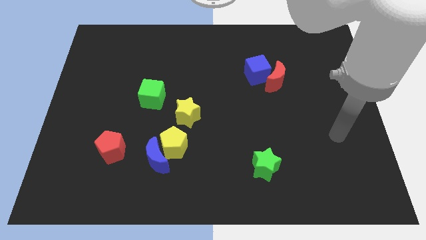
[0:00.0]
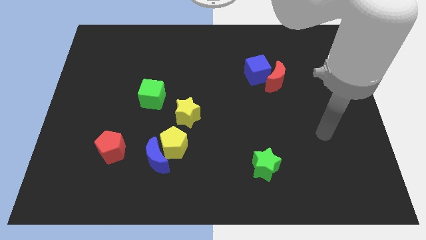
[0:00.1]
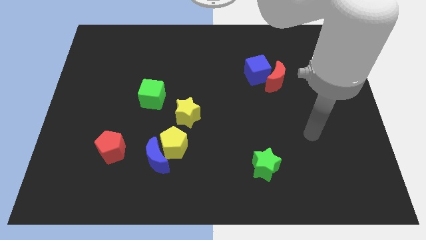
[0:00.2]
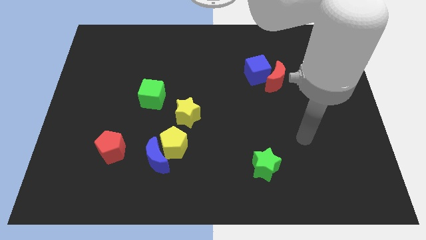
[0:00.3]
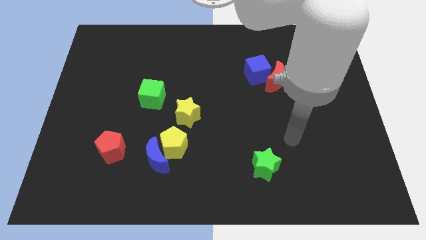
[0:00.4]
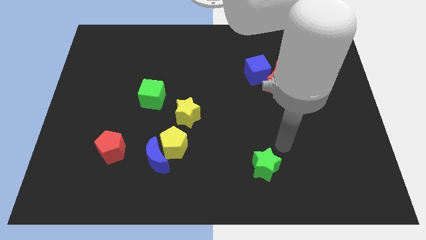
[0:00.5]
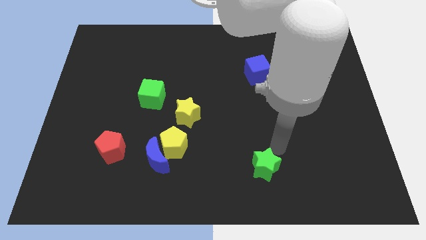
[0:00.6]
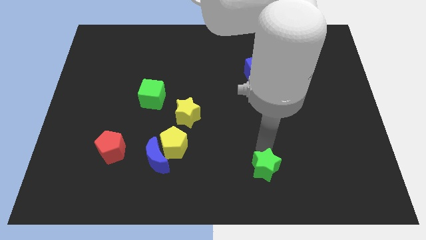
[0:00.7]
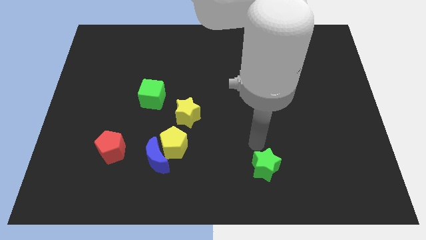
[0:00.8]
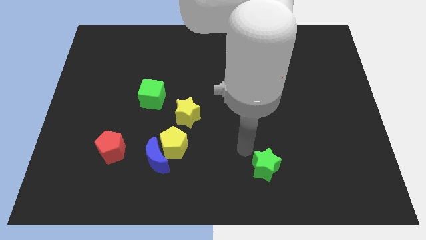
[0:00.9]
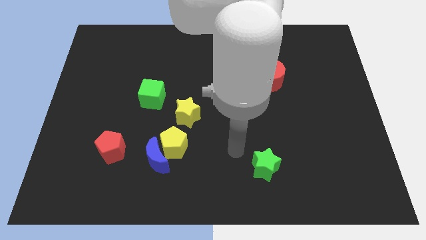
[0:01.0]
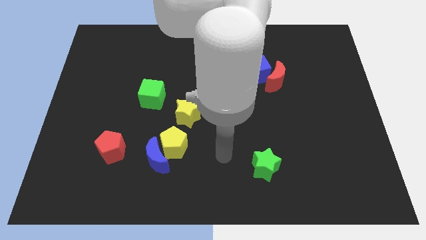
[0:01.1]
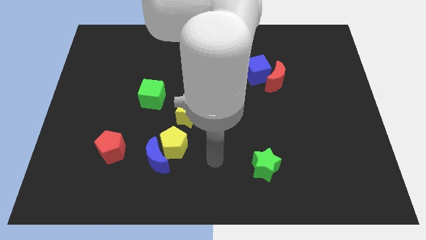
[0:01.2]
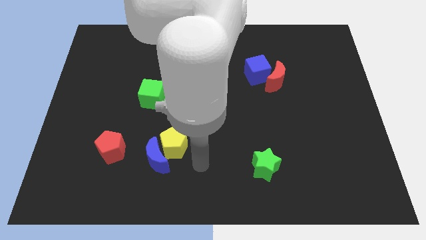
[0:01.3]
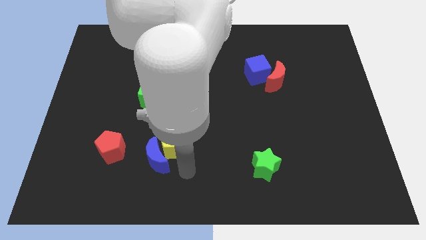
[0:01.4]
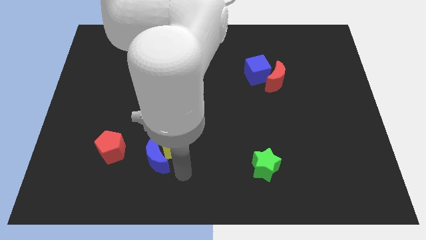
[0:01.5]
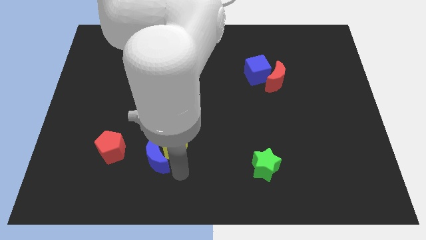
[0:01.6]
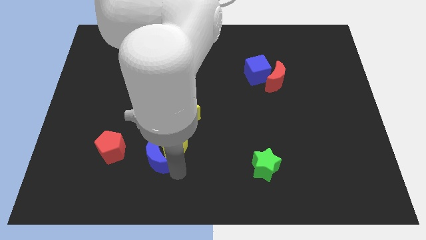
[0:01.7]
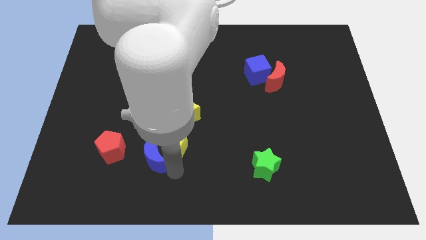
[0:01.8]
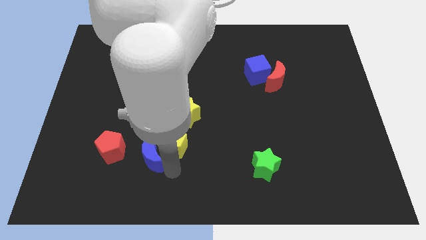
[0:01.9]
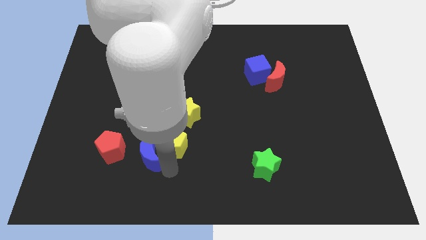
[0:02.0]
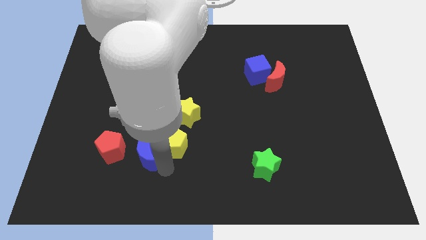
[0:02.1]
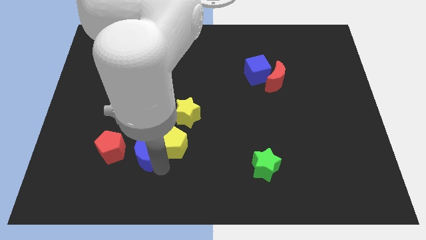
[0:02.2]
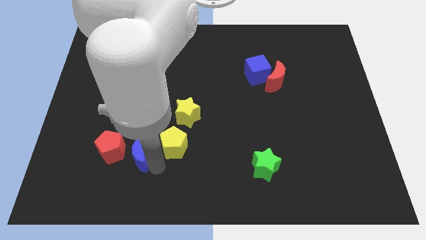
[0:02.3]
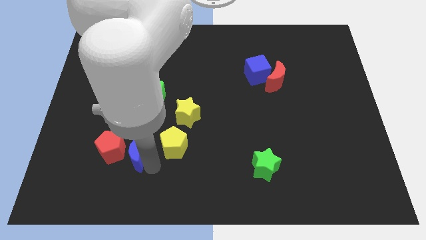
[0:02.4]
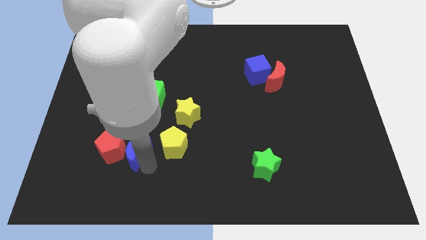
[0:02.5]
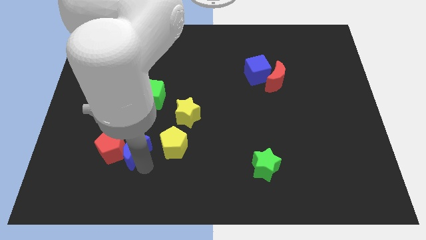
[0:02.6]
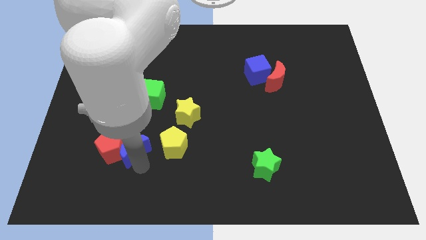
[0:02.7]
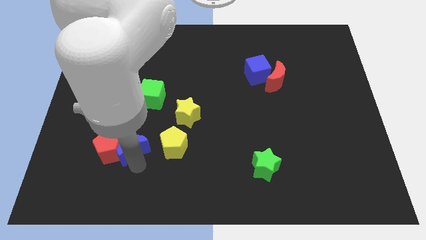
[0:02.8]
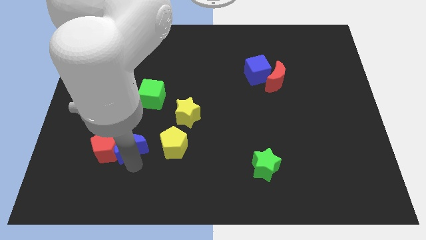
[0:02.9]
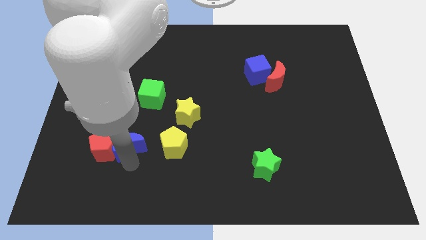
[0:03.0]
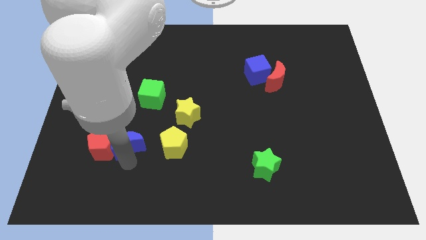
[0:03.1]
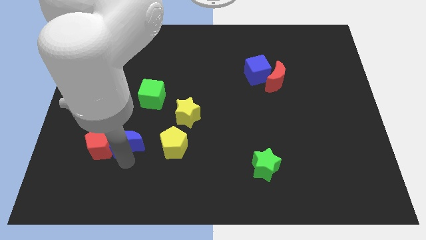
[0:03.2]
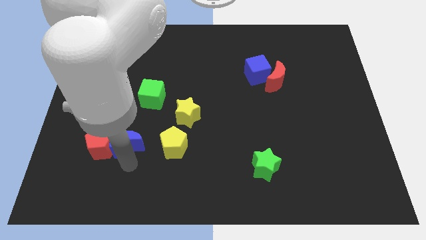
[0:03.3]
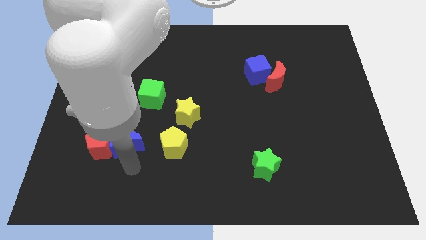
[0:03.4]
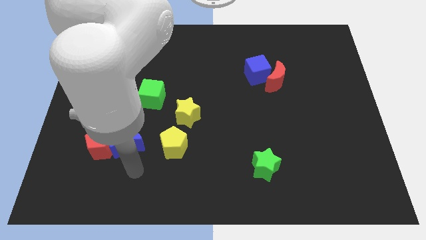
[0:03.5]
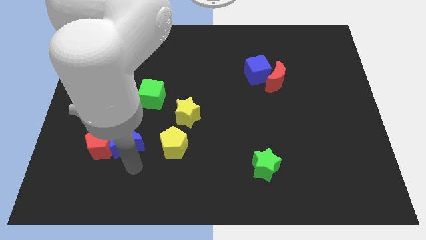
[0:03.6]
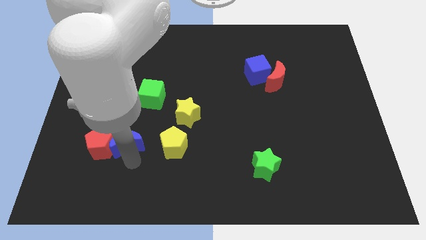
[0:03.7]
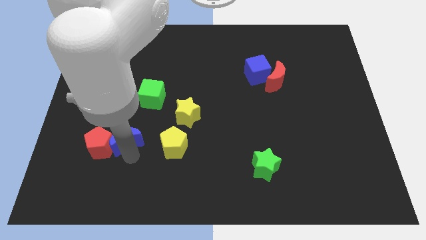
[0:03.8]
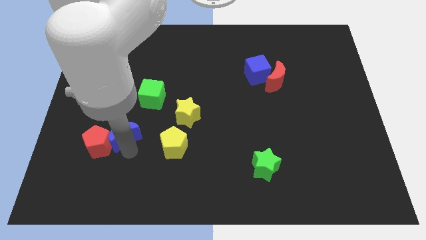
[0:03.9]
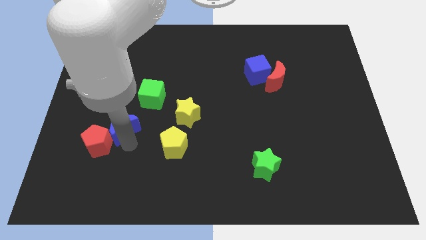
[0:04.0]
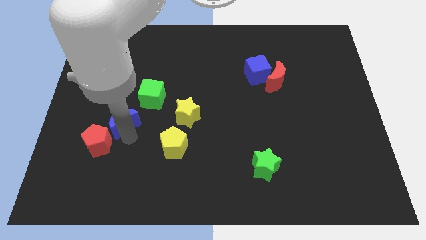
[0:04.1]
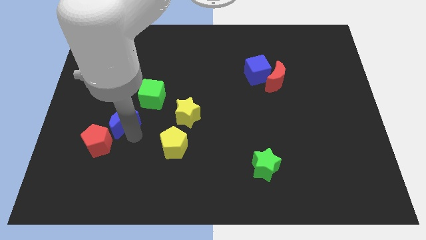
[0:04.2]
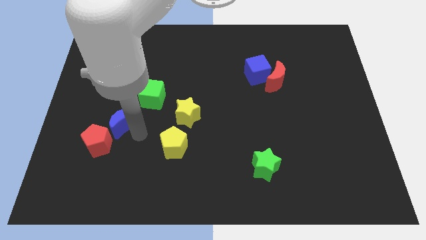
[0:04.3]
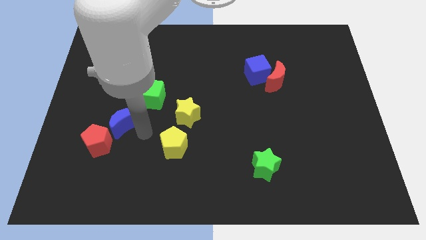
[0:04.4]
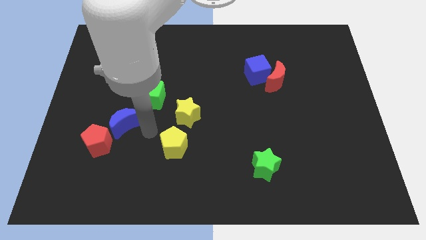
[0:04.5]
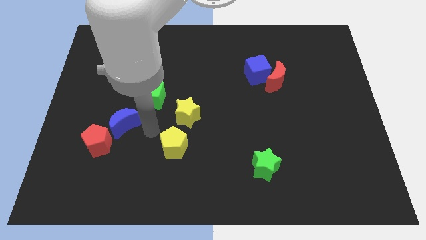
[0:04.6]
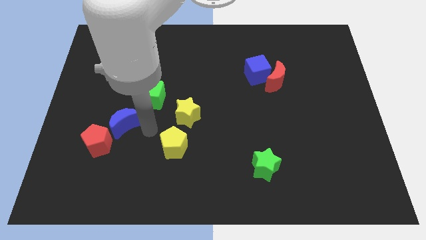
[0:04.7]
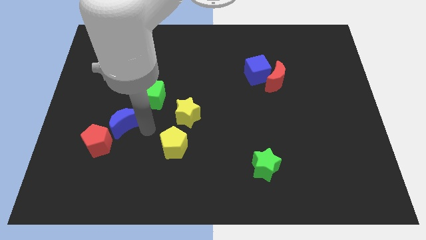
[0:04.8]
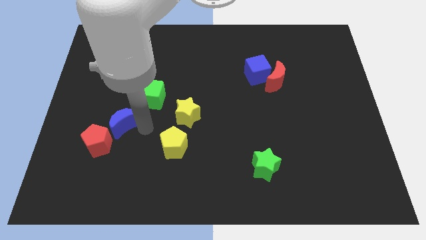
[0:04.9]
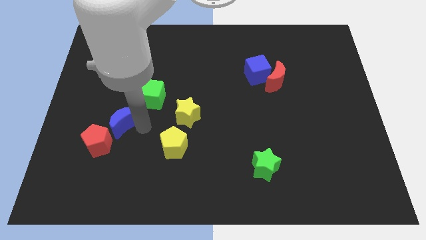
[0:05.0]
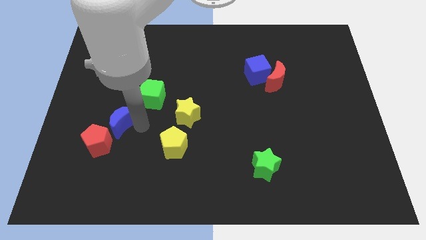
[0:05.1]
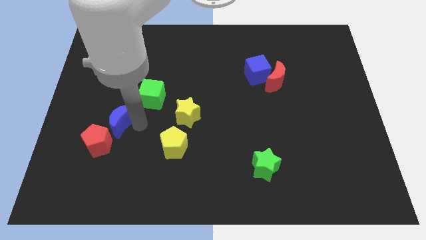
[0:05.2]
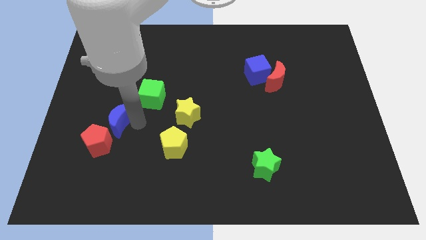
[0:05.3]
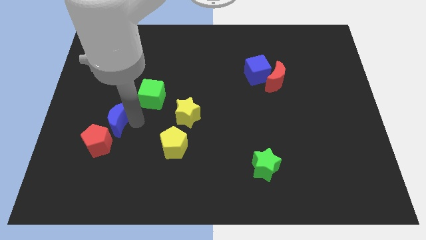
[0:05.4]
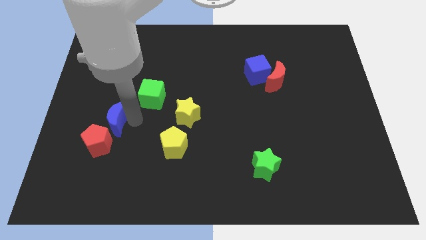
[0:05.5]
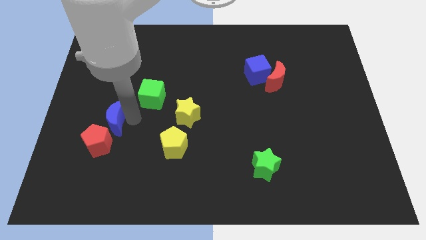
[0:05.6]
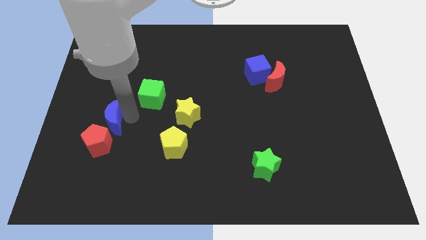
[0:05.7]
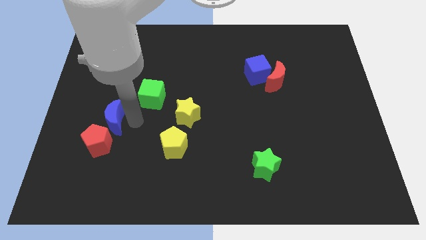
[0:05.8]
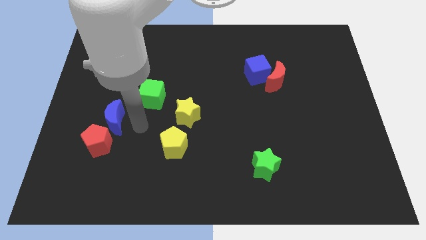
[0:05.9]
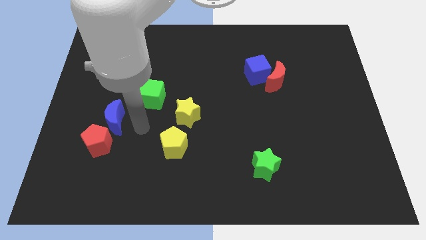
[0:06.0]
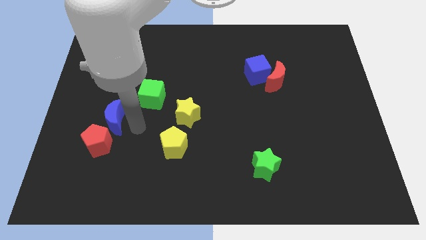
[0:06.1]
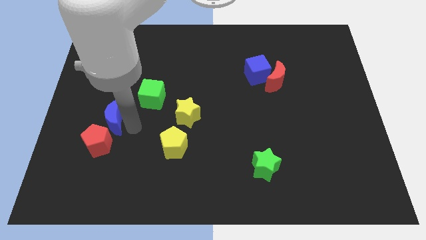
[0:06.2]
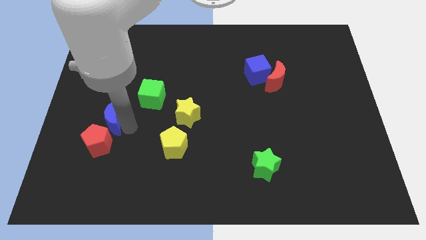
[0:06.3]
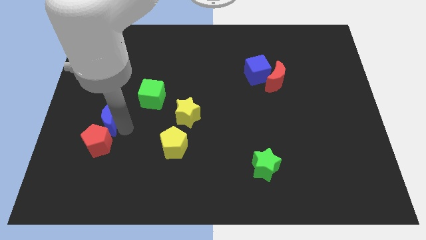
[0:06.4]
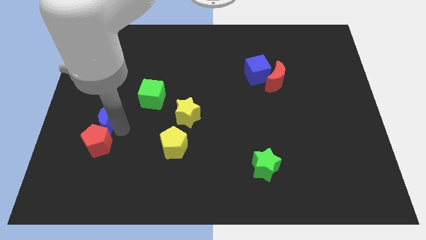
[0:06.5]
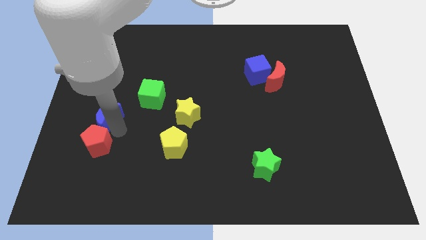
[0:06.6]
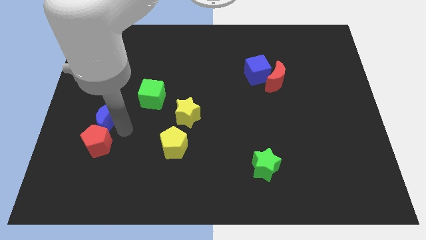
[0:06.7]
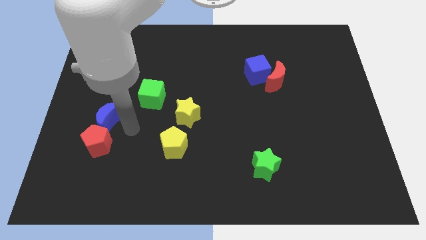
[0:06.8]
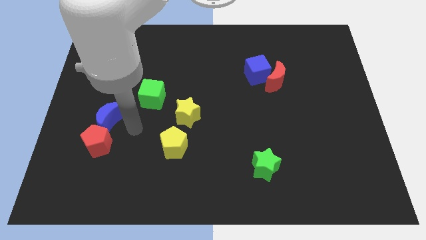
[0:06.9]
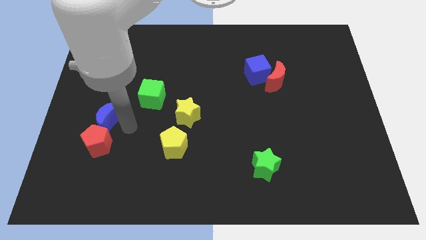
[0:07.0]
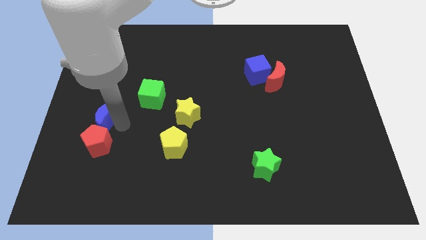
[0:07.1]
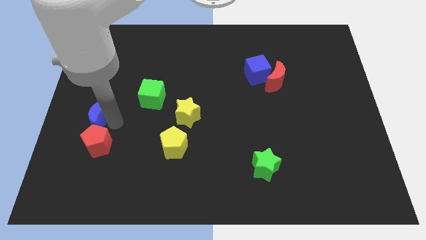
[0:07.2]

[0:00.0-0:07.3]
move the blue moon to the left side

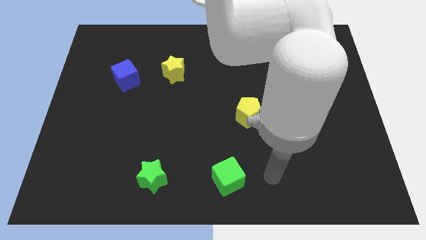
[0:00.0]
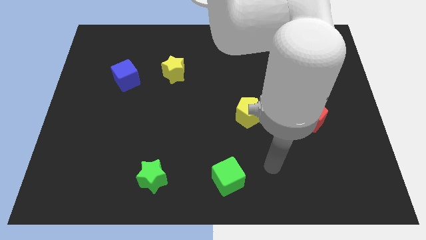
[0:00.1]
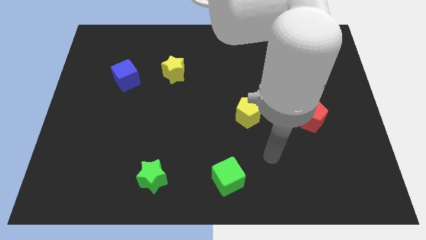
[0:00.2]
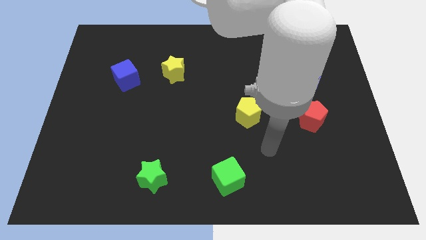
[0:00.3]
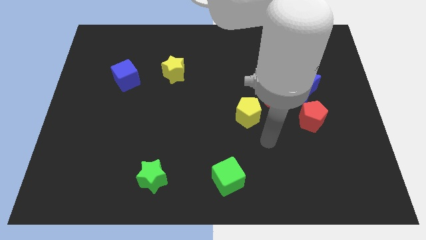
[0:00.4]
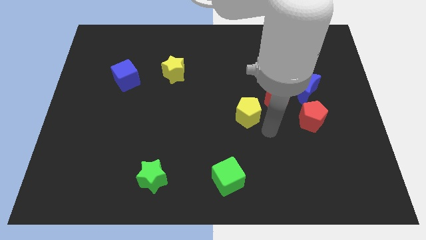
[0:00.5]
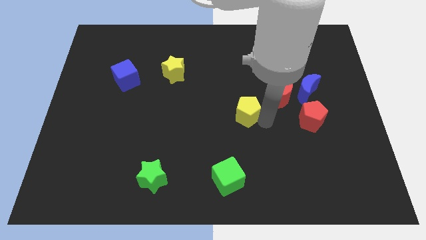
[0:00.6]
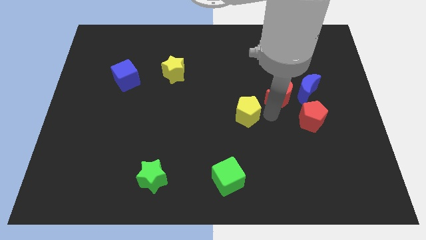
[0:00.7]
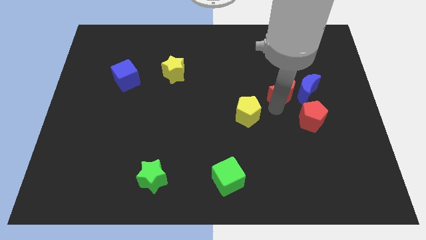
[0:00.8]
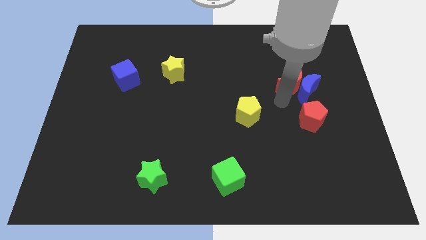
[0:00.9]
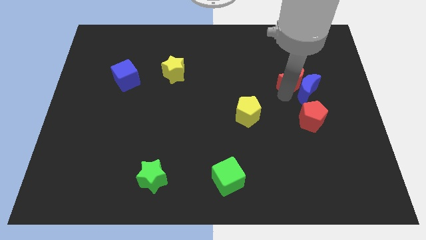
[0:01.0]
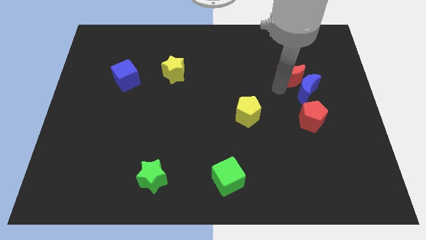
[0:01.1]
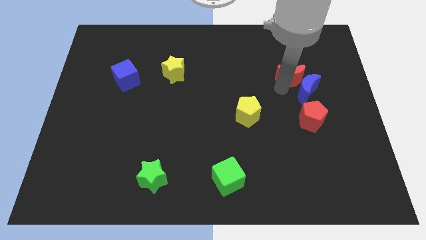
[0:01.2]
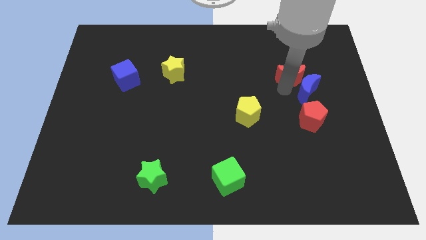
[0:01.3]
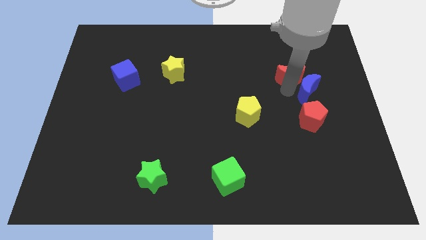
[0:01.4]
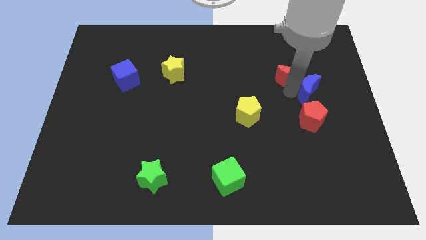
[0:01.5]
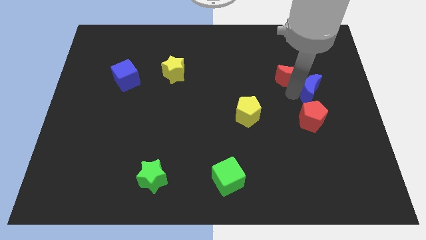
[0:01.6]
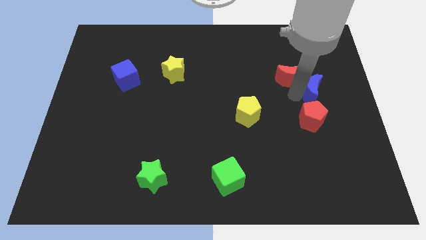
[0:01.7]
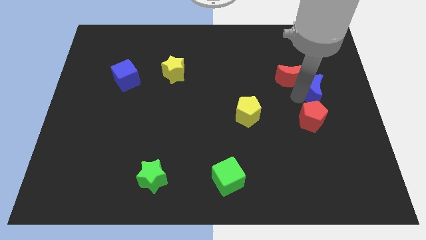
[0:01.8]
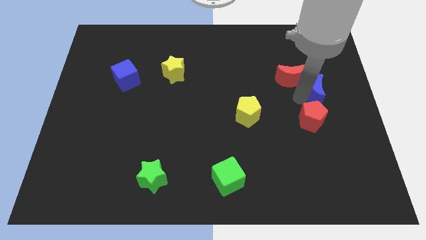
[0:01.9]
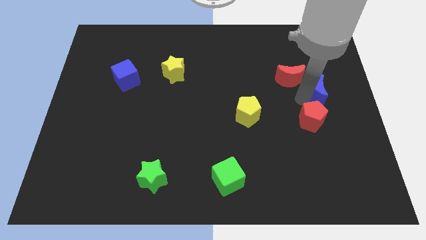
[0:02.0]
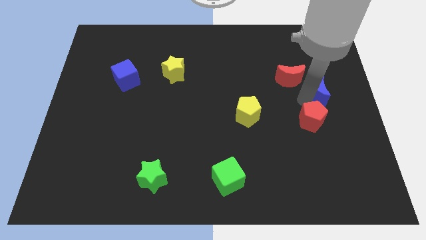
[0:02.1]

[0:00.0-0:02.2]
slide the blue moon to the right side
